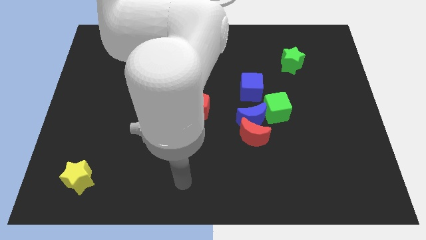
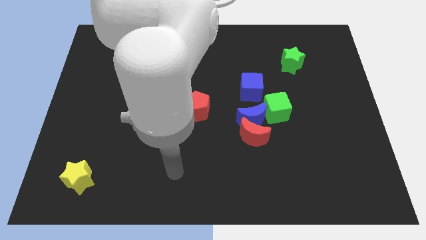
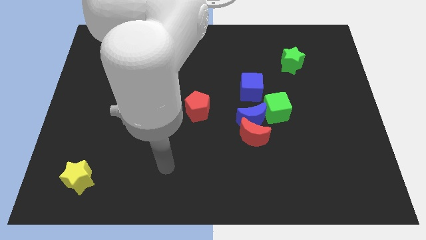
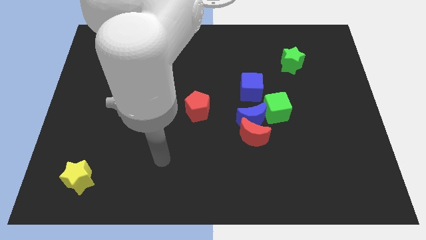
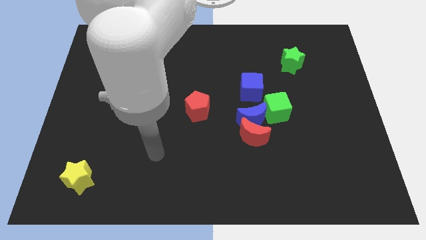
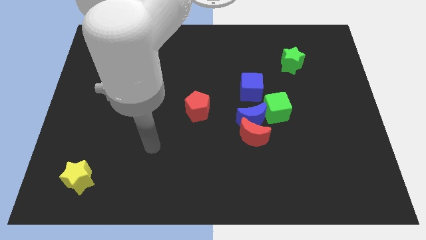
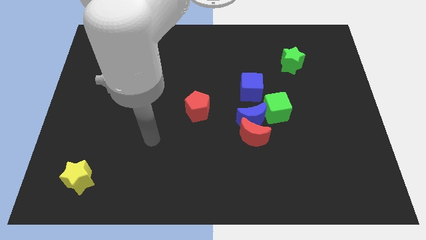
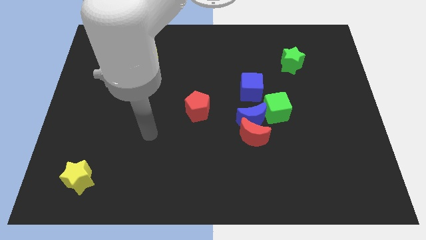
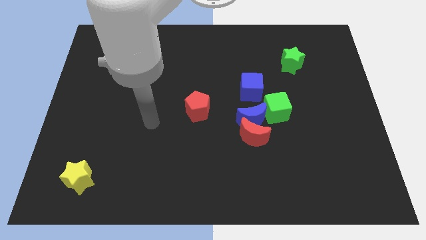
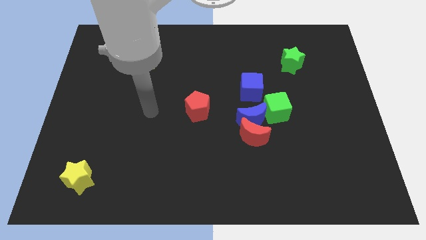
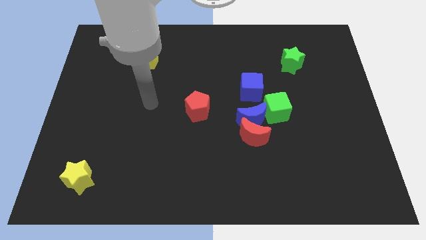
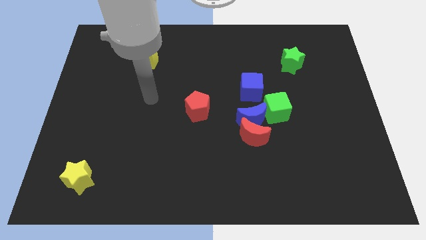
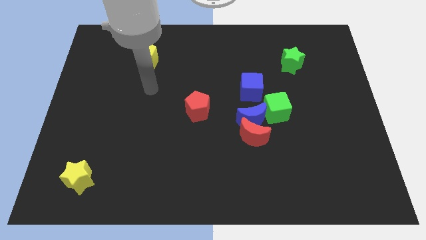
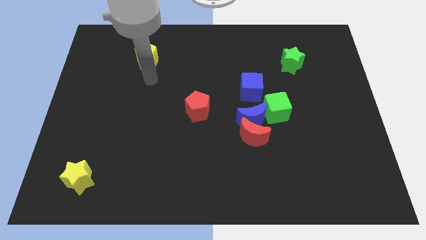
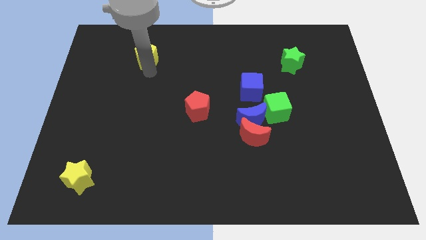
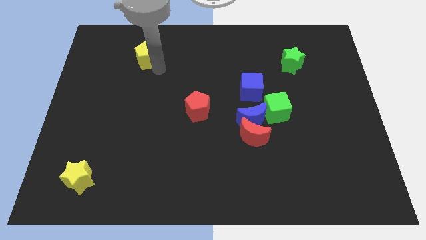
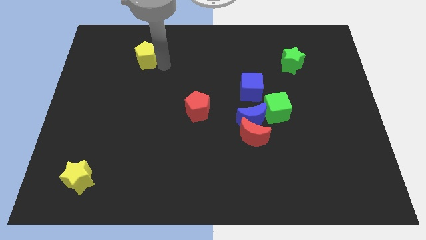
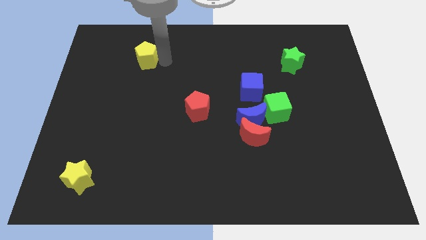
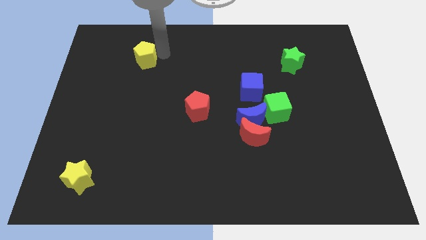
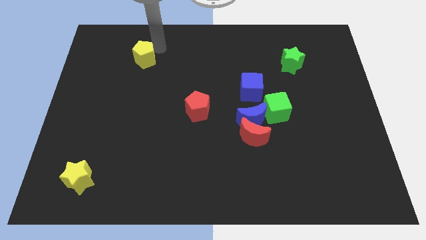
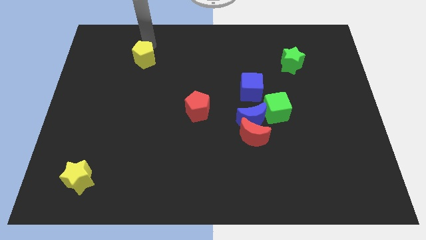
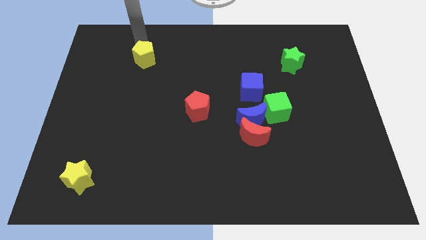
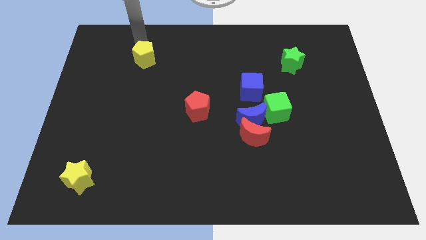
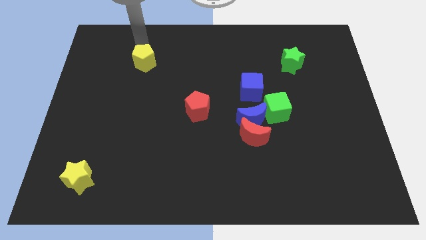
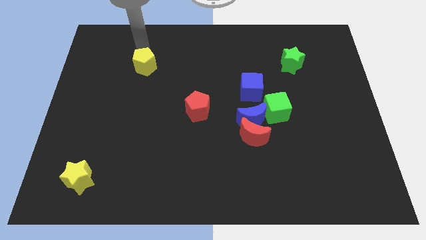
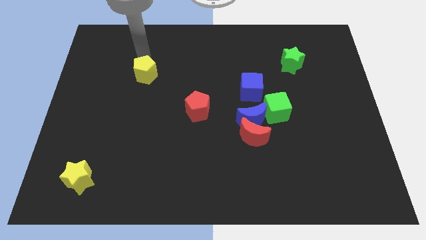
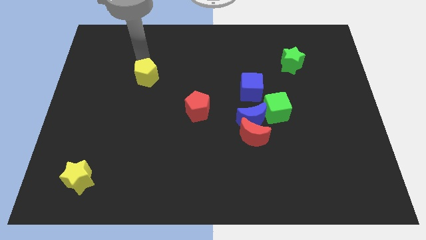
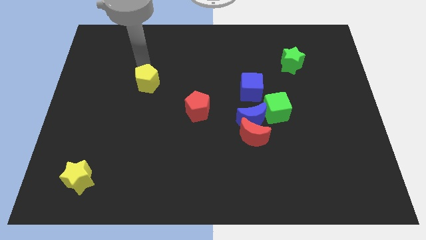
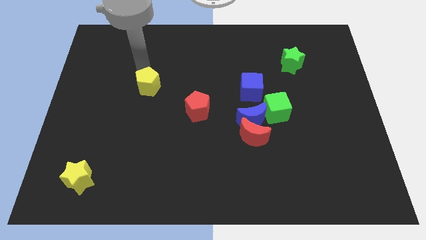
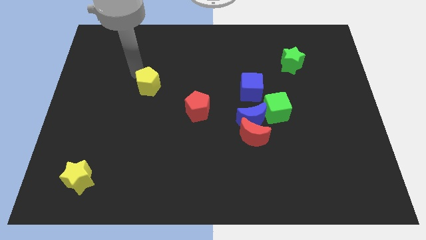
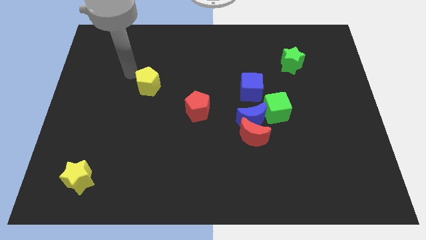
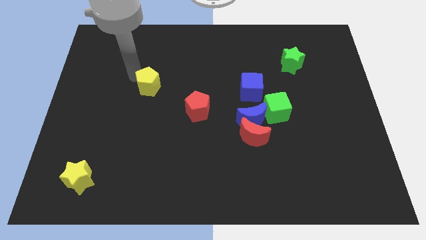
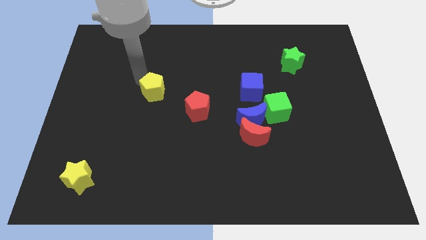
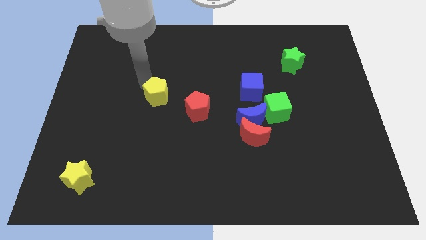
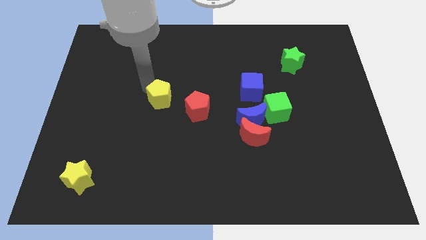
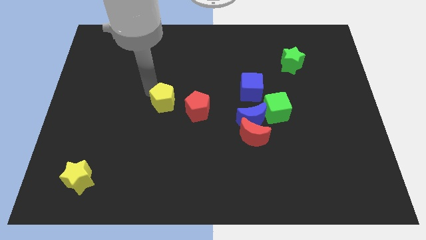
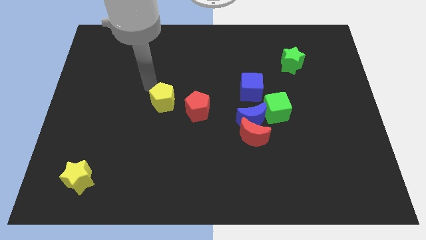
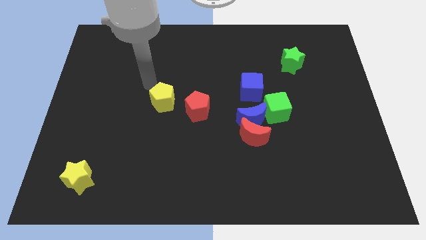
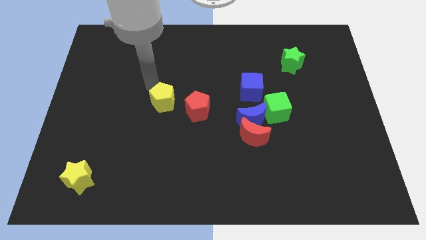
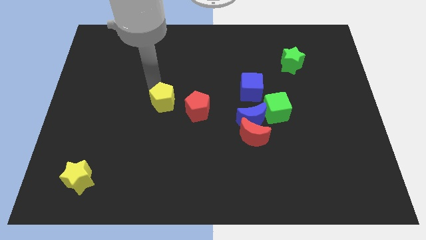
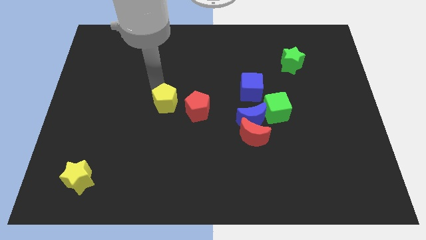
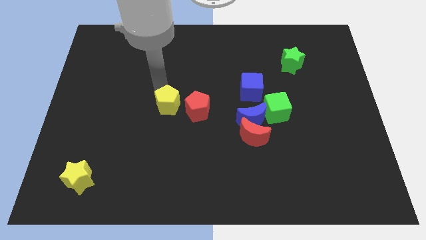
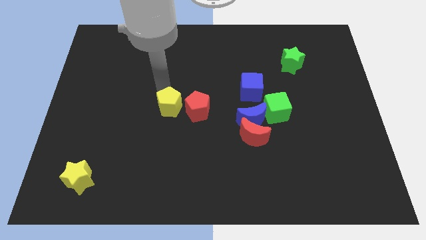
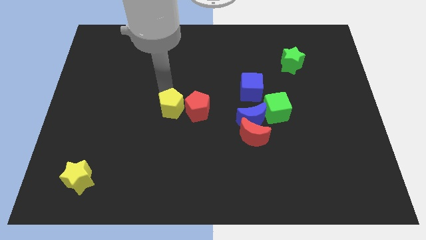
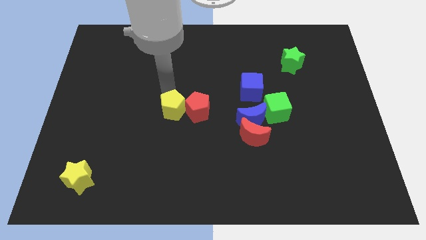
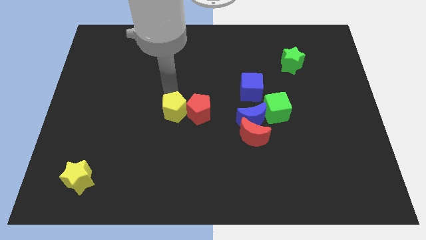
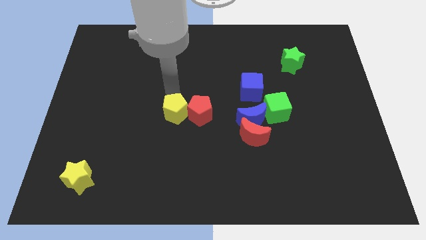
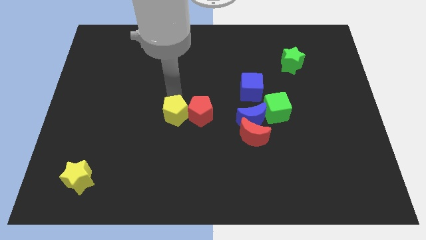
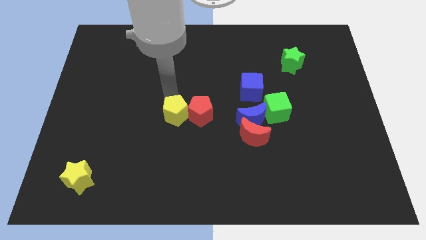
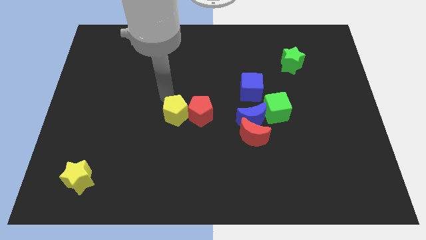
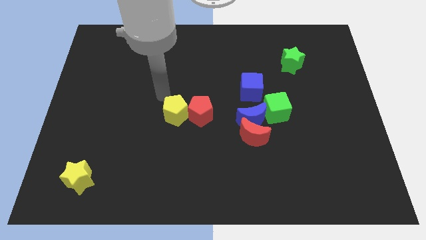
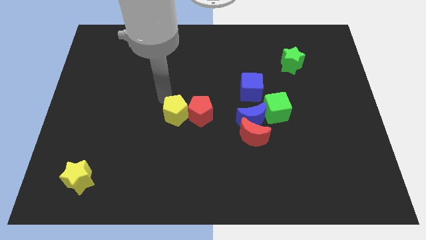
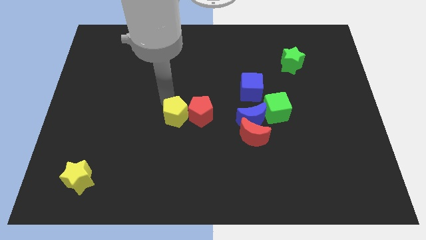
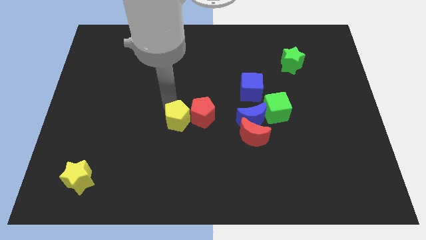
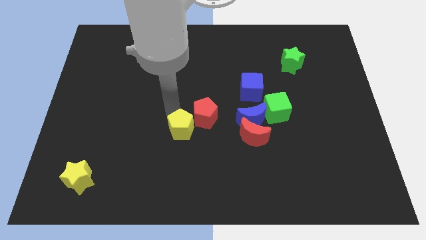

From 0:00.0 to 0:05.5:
push the yellow pentagon to the left side of the red moon

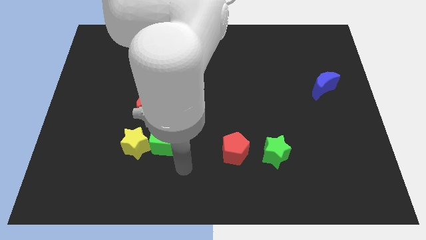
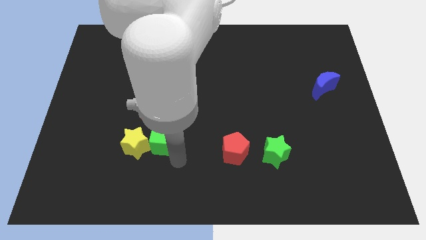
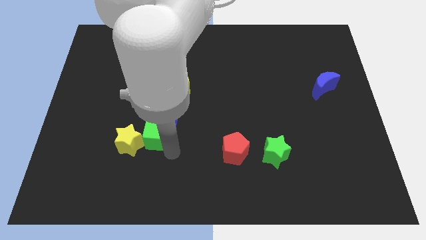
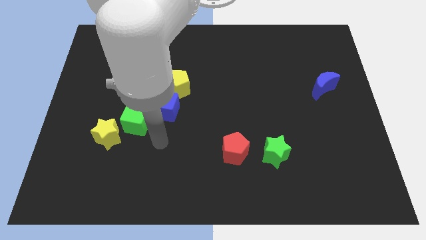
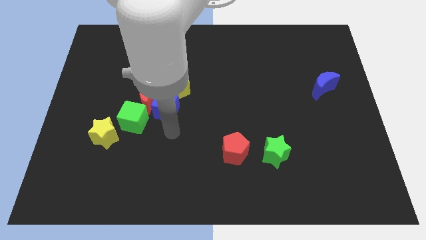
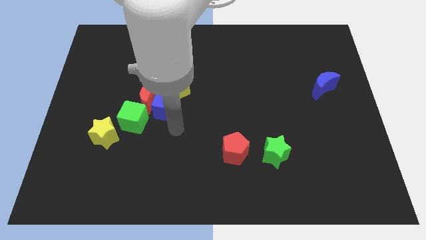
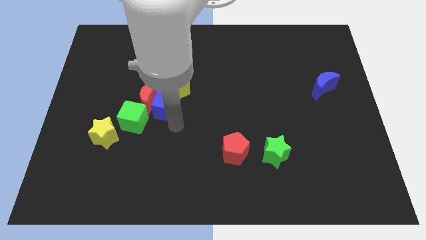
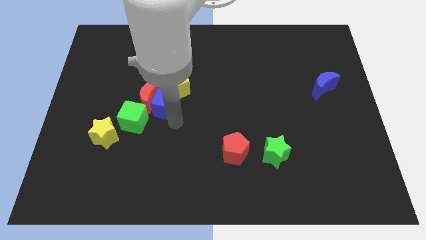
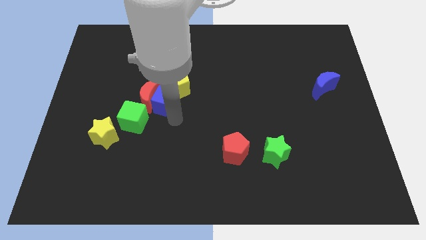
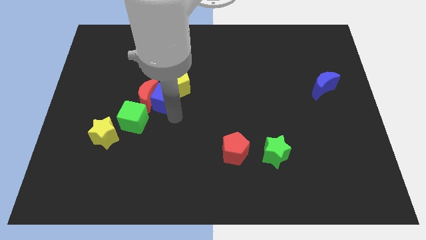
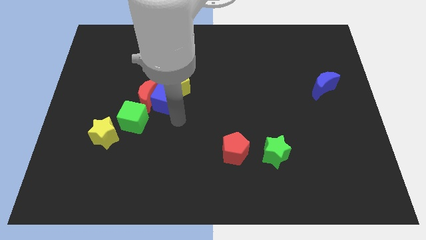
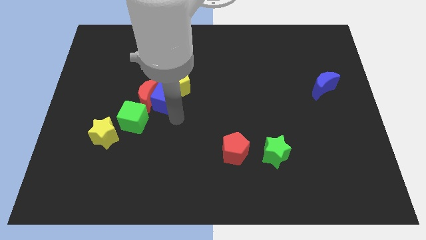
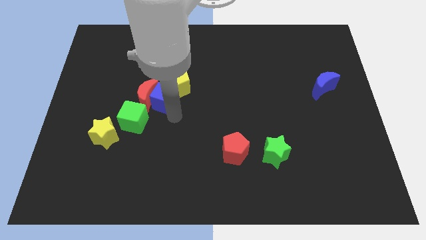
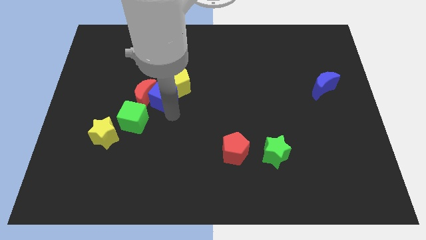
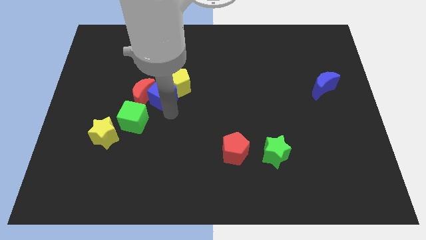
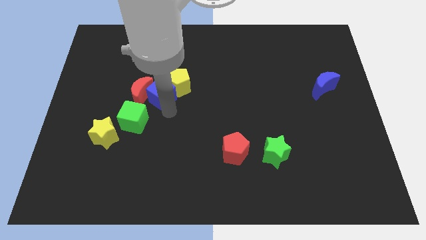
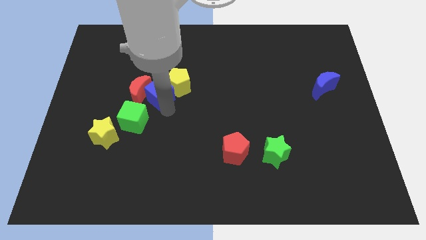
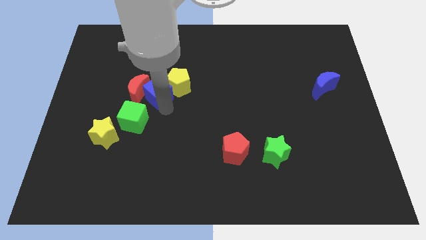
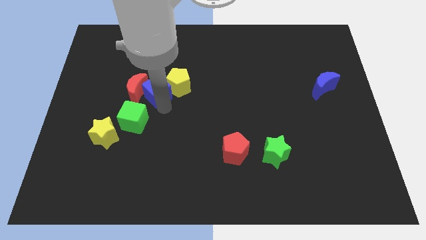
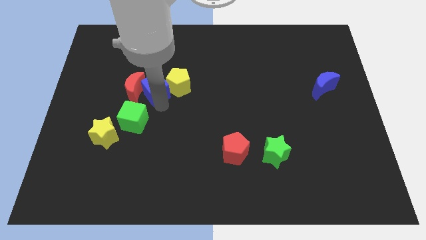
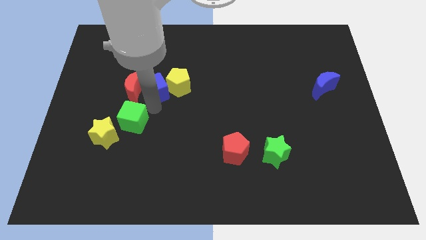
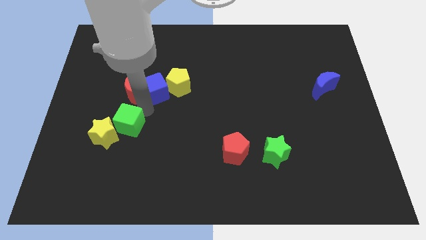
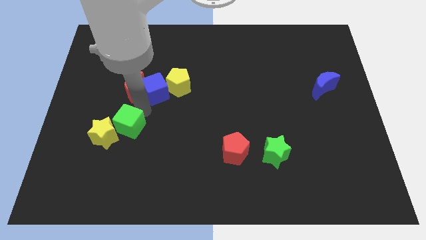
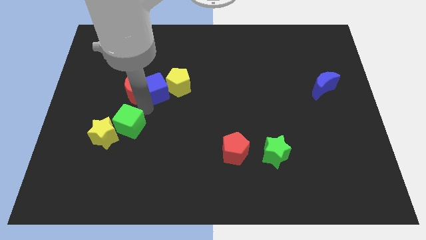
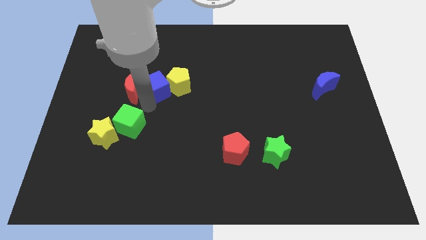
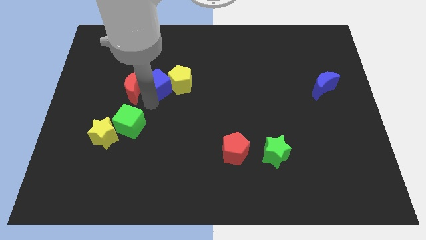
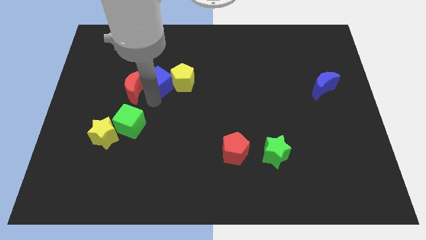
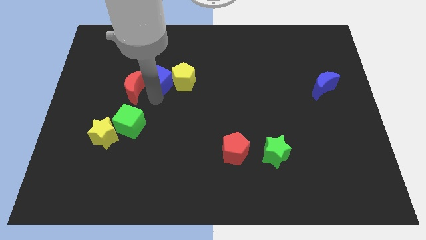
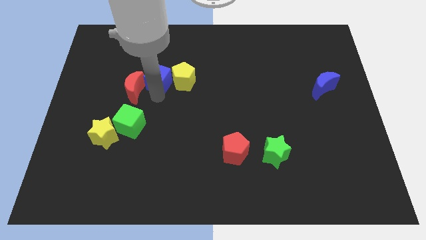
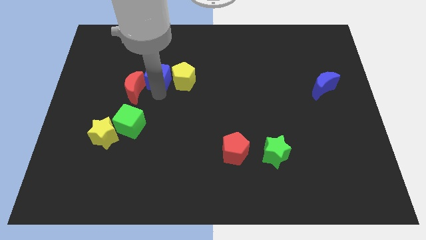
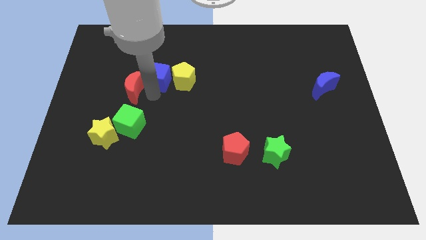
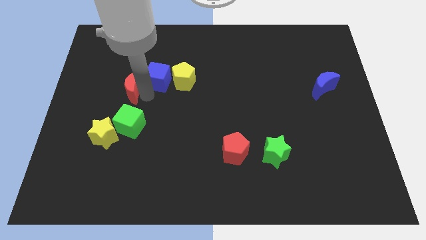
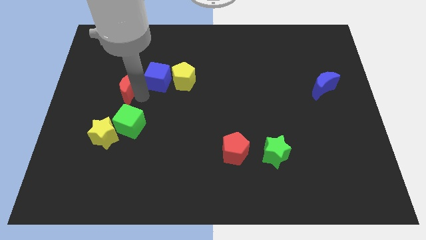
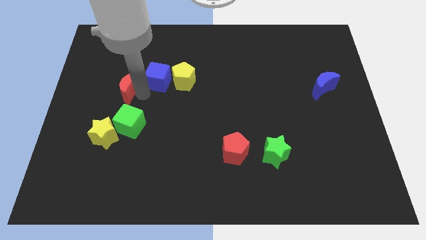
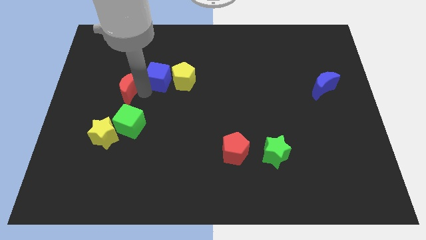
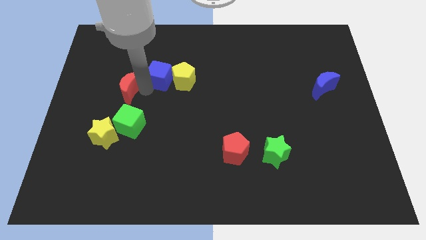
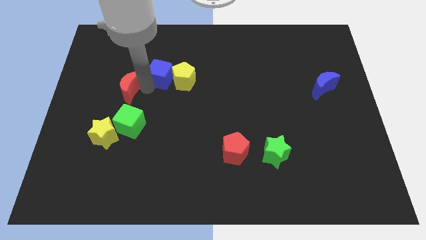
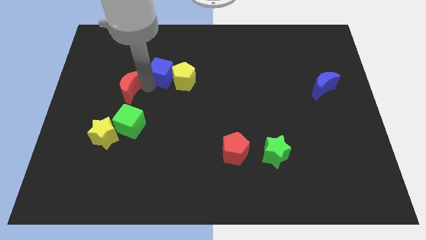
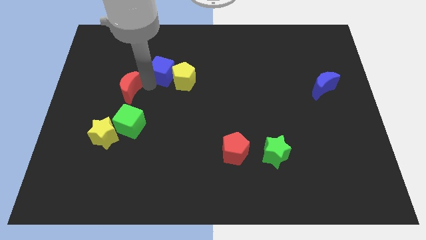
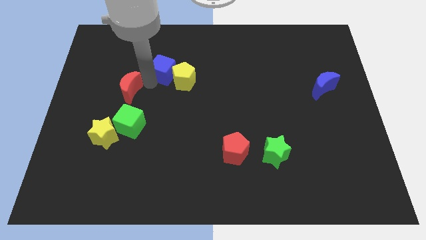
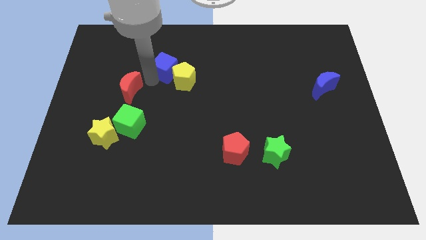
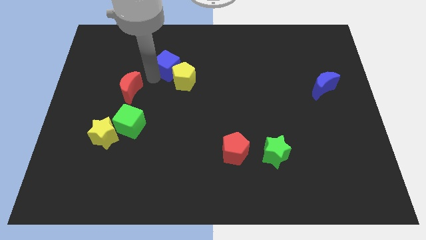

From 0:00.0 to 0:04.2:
slide the blue cube to the top side of the yellow pentagon
